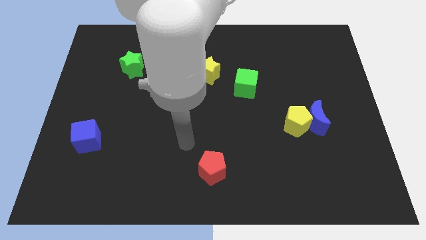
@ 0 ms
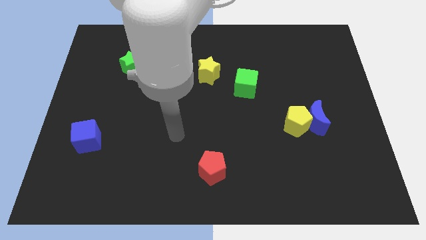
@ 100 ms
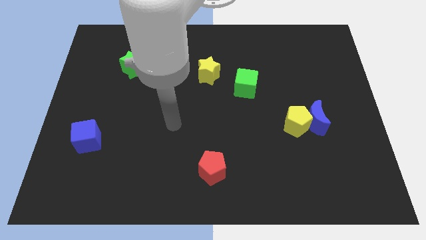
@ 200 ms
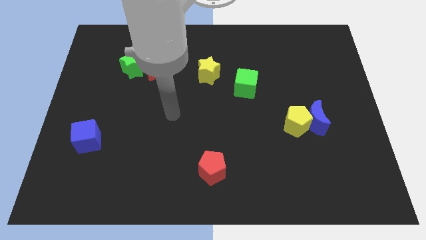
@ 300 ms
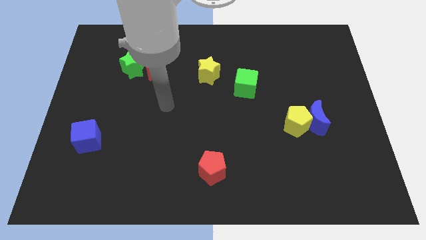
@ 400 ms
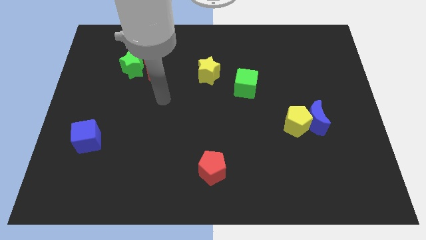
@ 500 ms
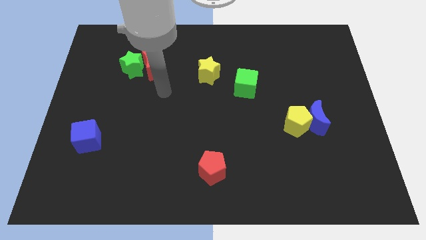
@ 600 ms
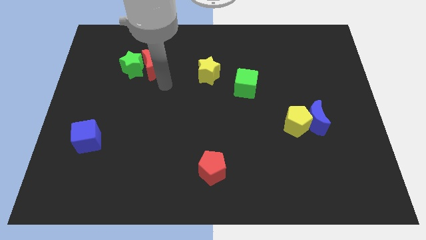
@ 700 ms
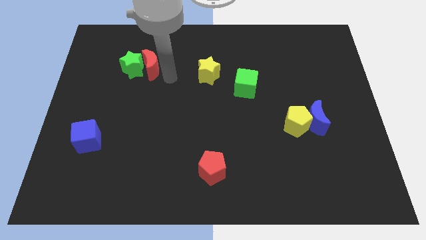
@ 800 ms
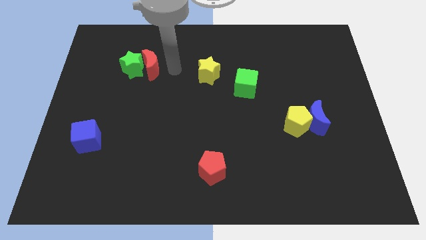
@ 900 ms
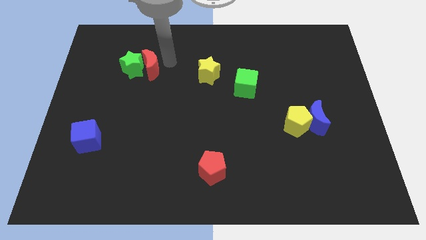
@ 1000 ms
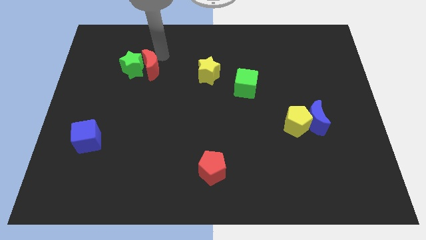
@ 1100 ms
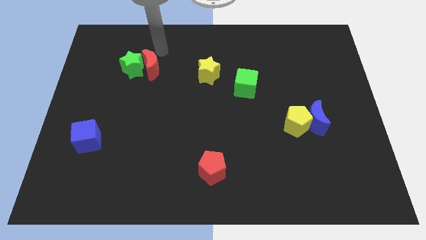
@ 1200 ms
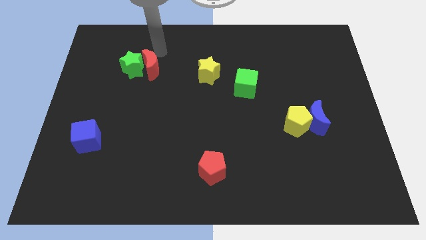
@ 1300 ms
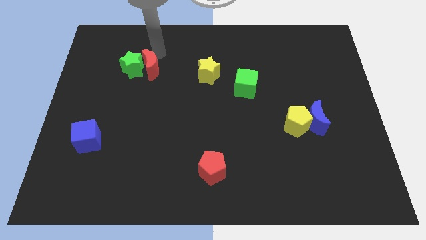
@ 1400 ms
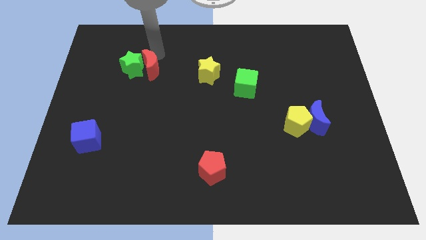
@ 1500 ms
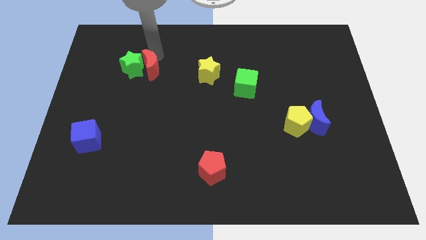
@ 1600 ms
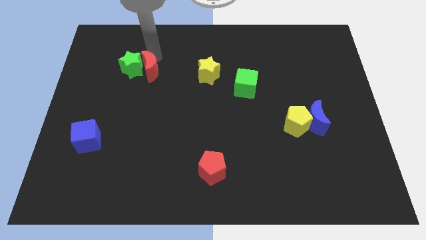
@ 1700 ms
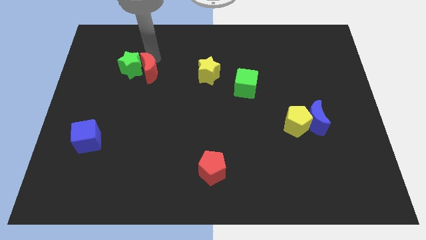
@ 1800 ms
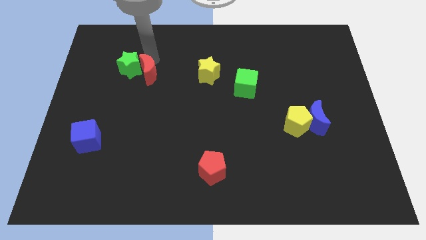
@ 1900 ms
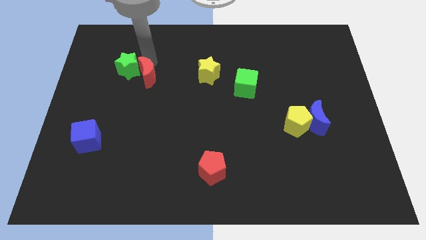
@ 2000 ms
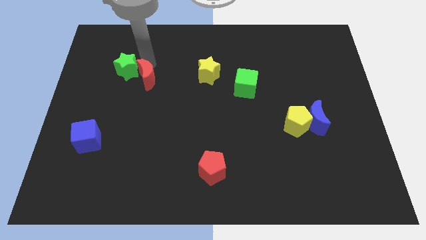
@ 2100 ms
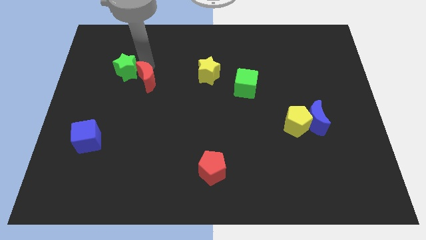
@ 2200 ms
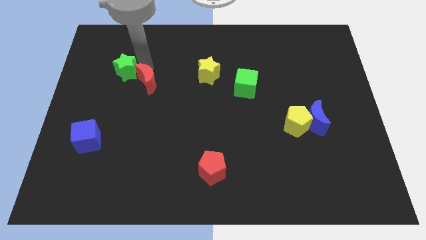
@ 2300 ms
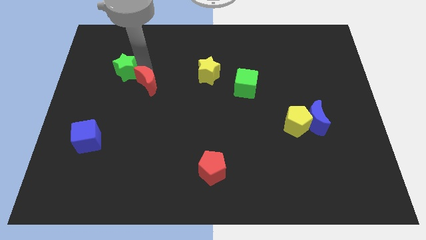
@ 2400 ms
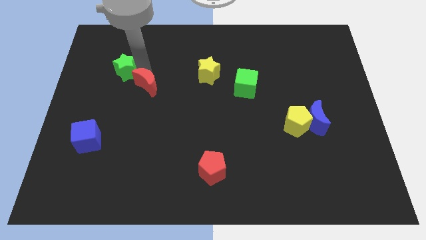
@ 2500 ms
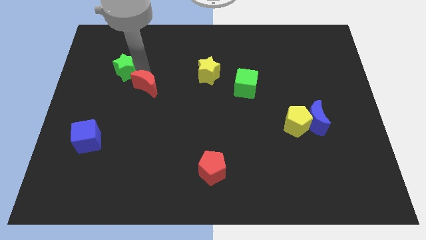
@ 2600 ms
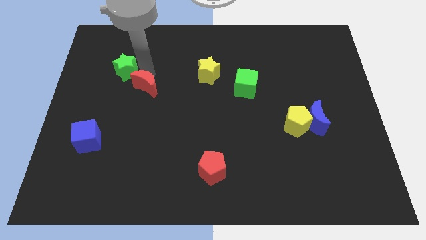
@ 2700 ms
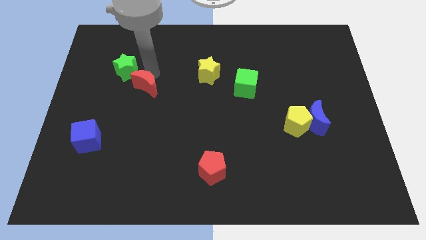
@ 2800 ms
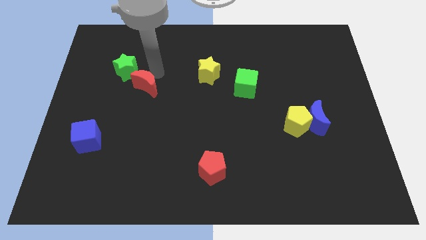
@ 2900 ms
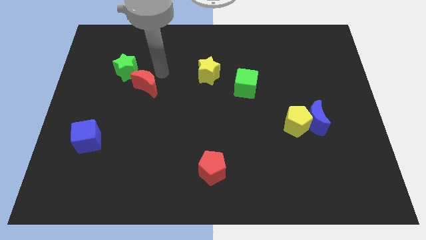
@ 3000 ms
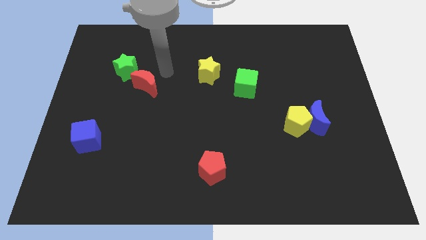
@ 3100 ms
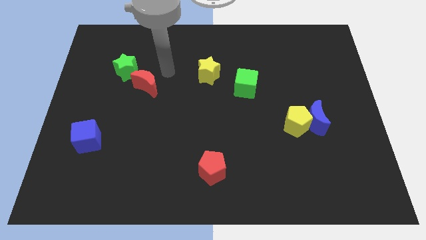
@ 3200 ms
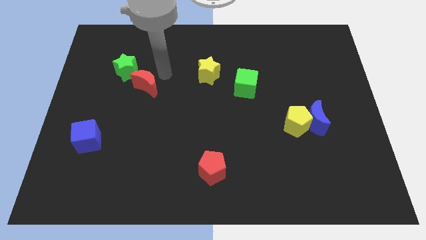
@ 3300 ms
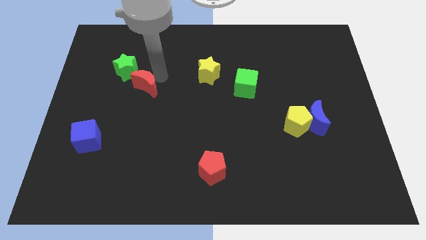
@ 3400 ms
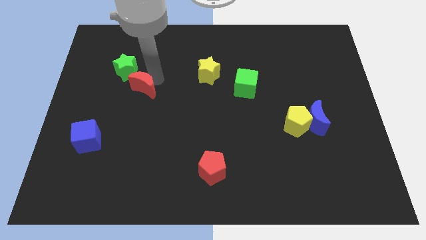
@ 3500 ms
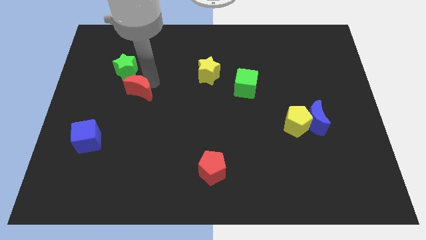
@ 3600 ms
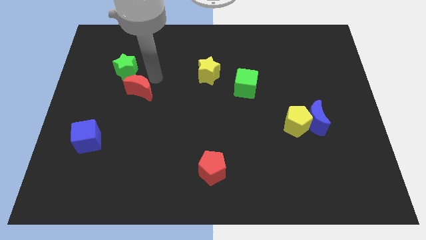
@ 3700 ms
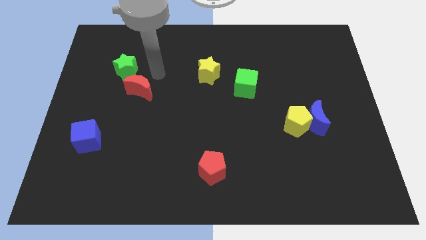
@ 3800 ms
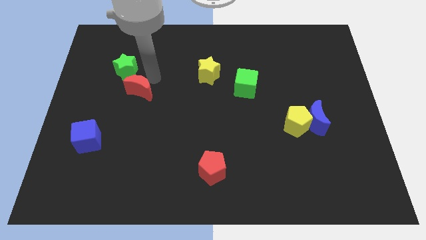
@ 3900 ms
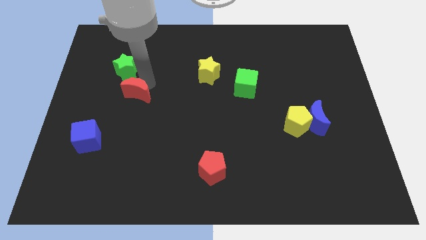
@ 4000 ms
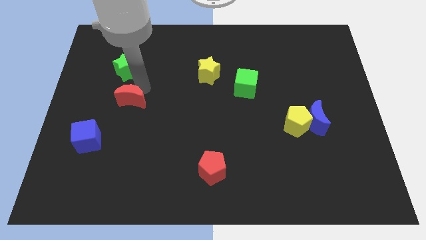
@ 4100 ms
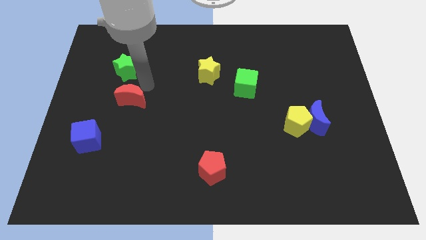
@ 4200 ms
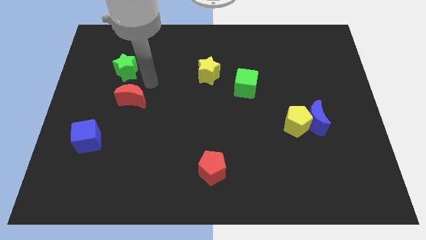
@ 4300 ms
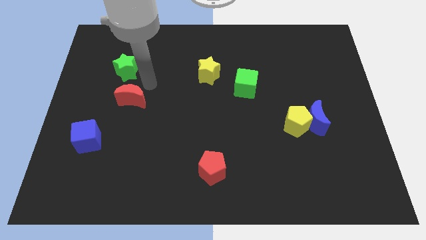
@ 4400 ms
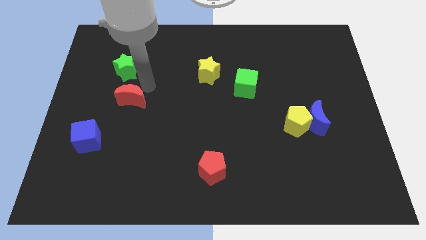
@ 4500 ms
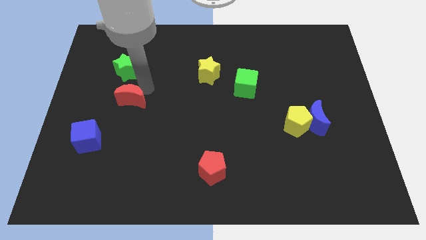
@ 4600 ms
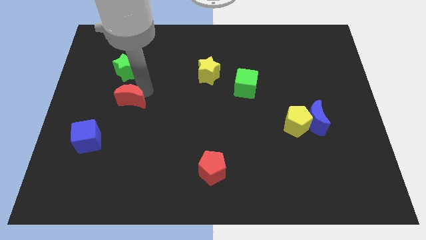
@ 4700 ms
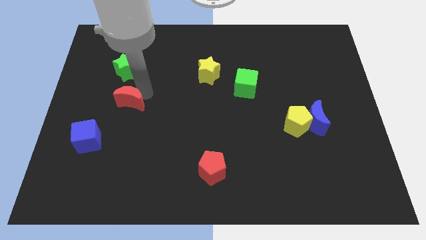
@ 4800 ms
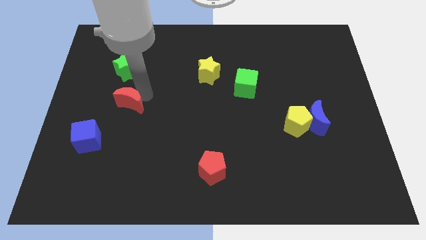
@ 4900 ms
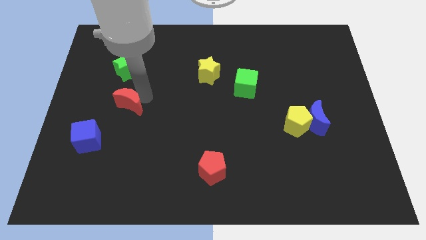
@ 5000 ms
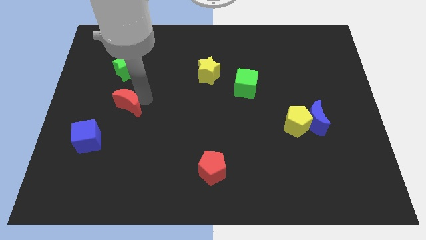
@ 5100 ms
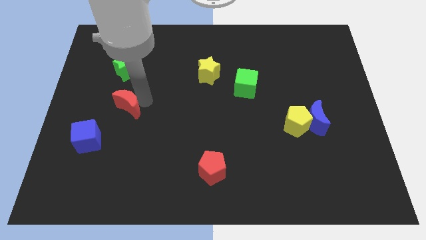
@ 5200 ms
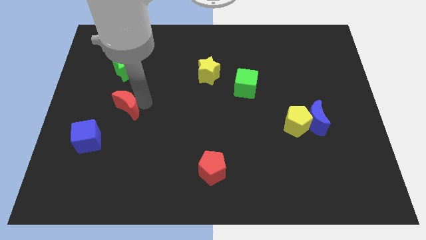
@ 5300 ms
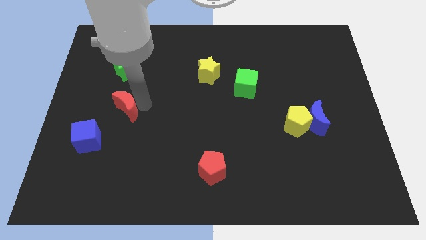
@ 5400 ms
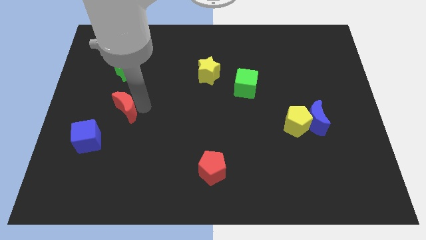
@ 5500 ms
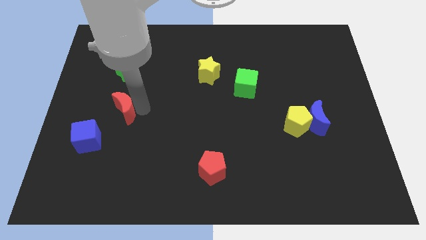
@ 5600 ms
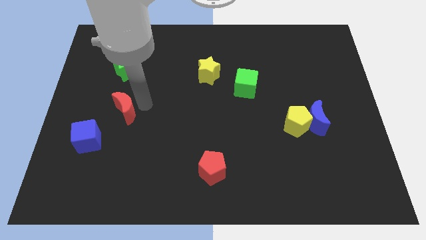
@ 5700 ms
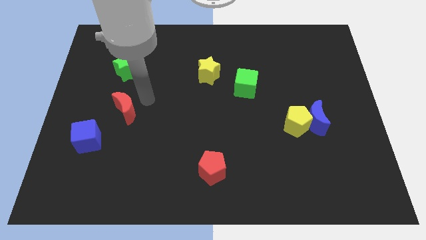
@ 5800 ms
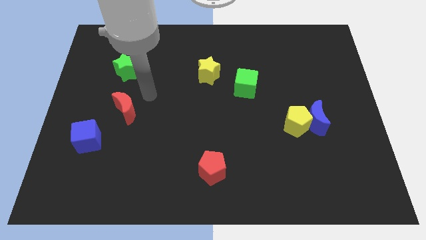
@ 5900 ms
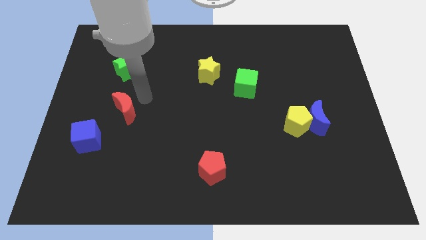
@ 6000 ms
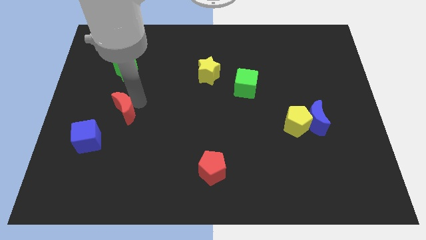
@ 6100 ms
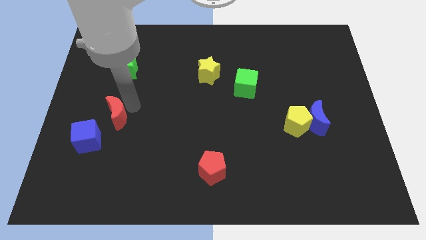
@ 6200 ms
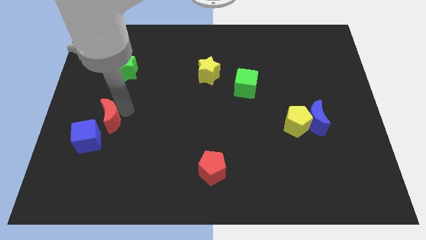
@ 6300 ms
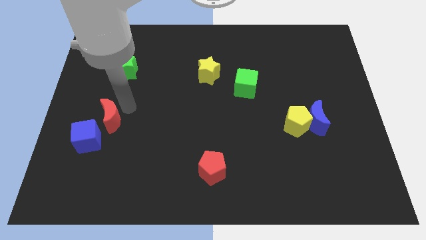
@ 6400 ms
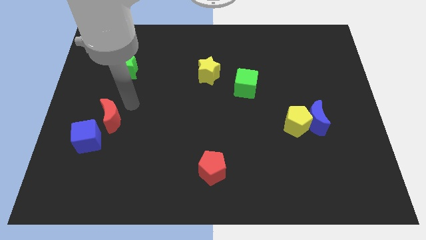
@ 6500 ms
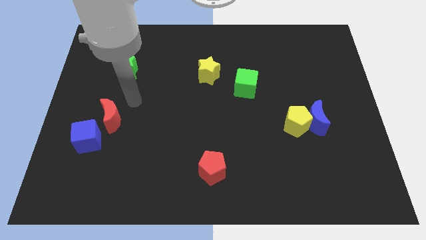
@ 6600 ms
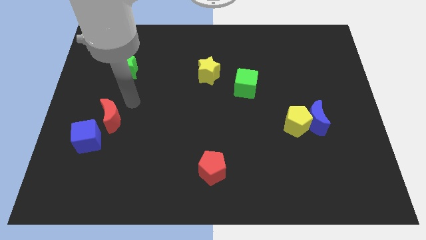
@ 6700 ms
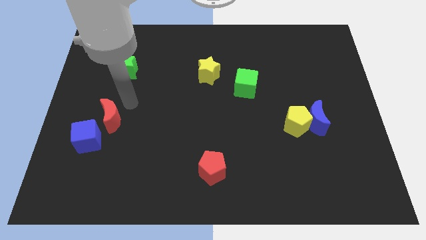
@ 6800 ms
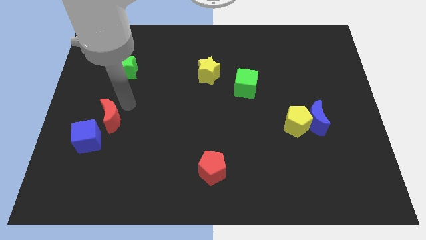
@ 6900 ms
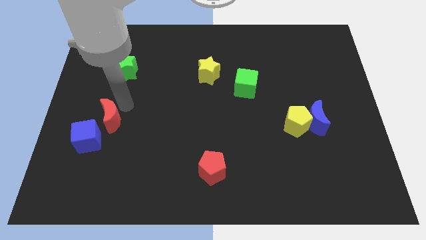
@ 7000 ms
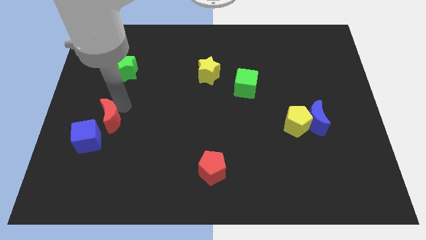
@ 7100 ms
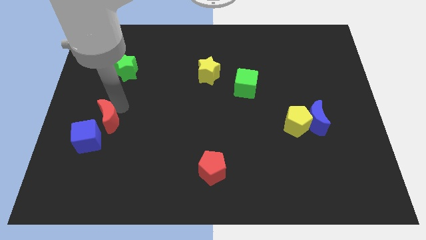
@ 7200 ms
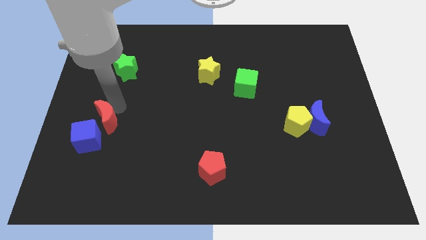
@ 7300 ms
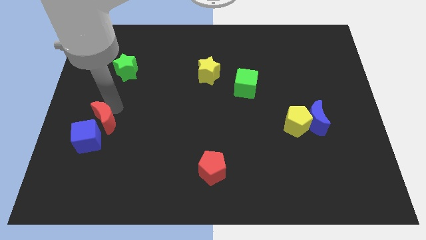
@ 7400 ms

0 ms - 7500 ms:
move the red moon close to the blue cube
